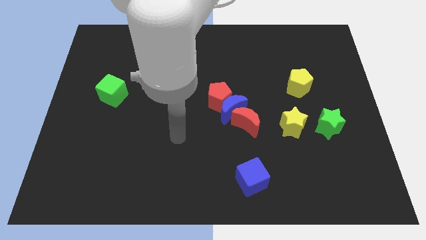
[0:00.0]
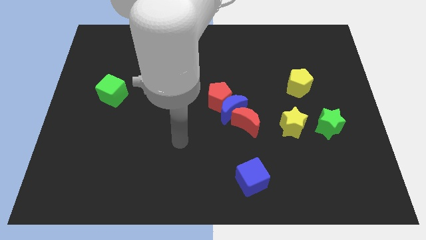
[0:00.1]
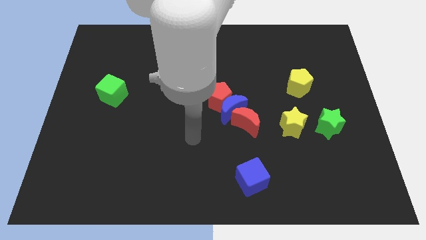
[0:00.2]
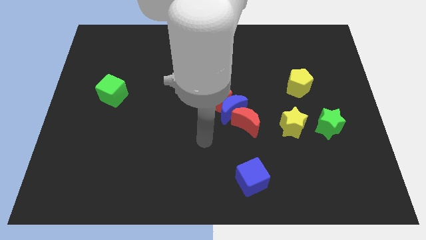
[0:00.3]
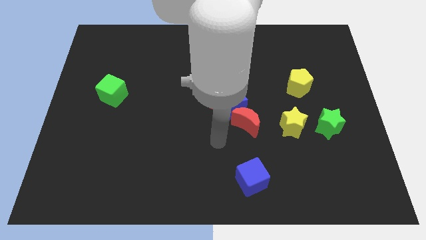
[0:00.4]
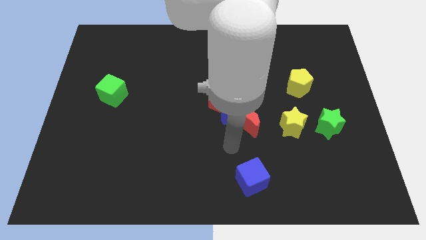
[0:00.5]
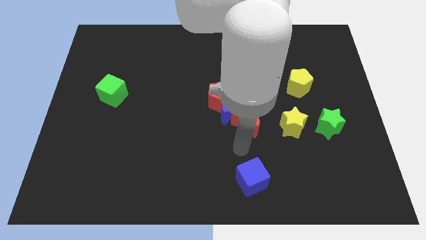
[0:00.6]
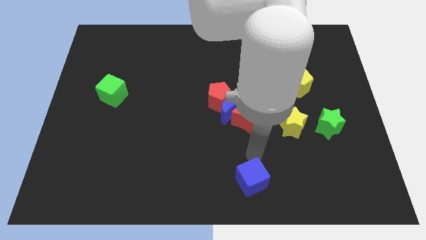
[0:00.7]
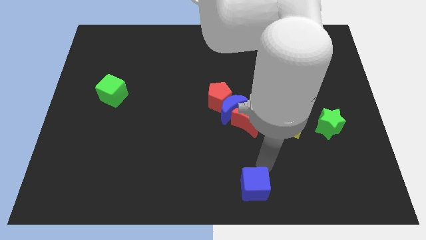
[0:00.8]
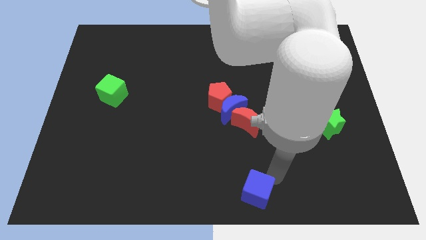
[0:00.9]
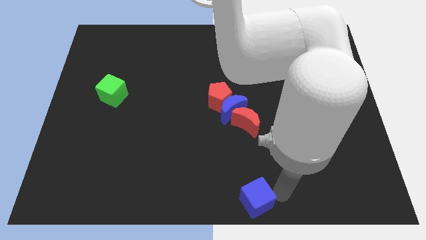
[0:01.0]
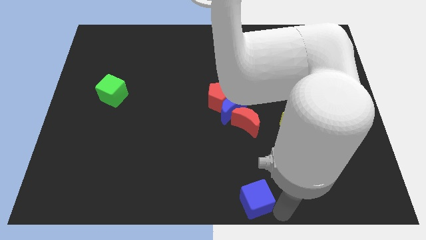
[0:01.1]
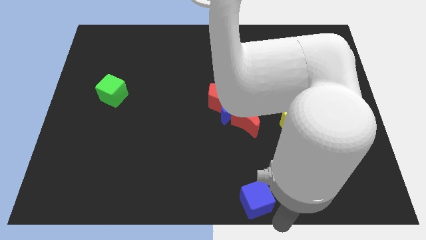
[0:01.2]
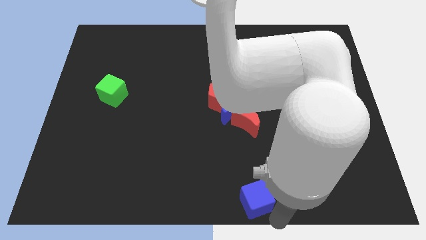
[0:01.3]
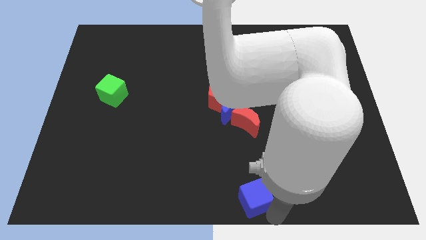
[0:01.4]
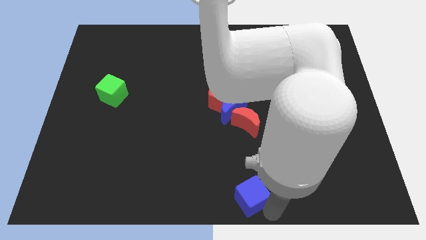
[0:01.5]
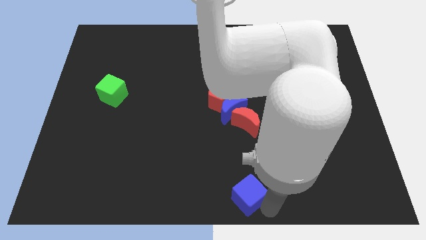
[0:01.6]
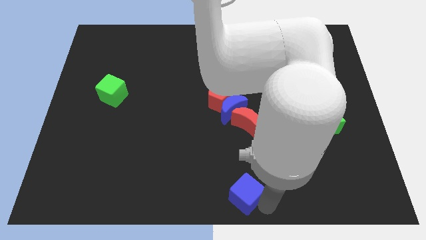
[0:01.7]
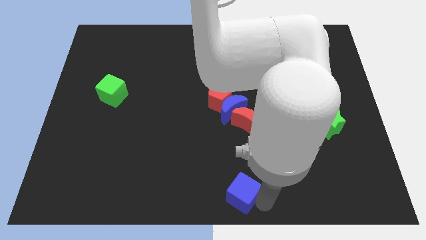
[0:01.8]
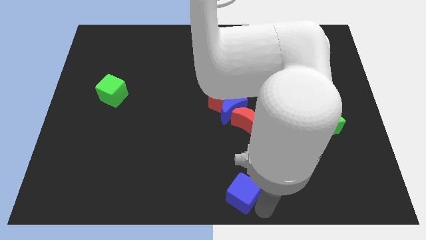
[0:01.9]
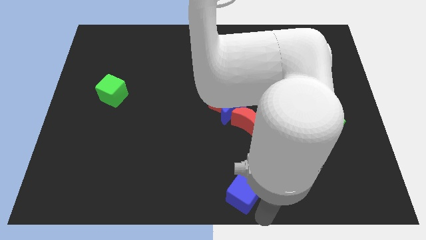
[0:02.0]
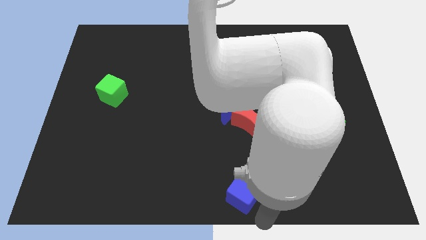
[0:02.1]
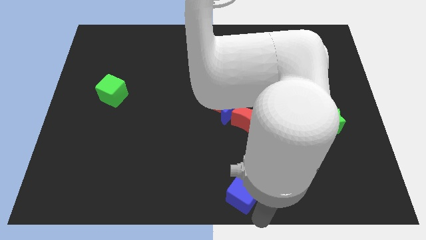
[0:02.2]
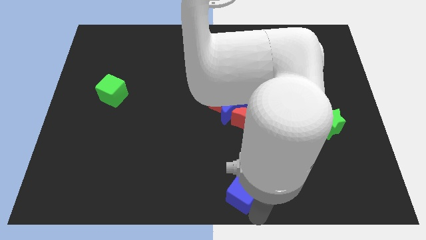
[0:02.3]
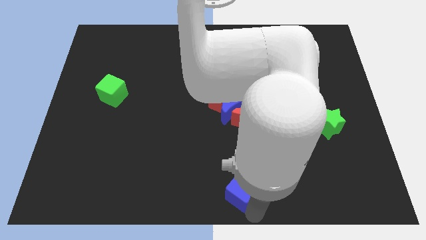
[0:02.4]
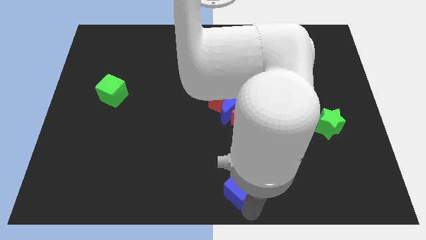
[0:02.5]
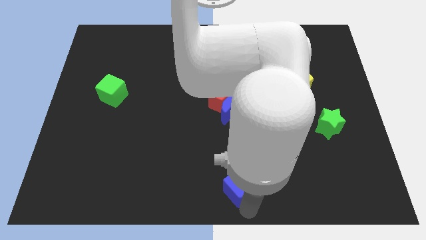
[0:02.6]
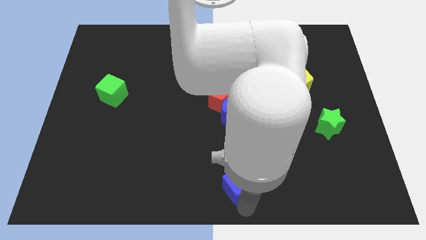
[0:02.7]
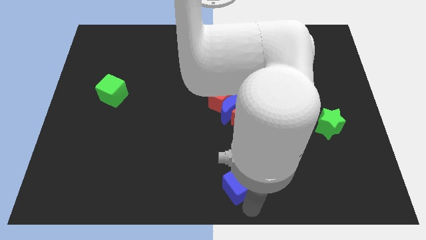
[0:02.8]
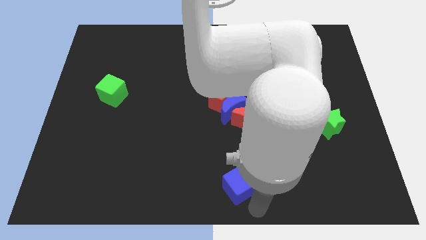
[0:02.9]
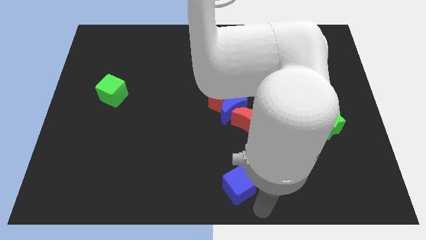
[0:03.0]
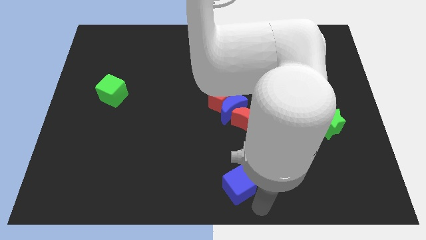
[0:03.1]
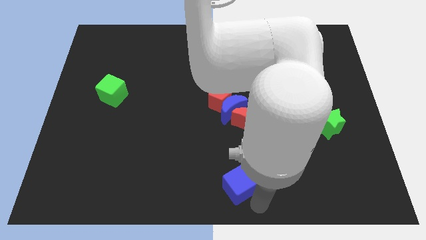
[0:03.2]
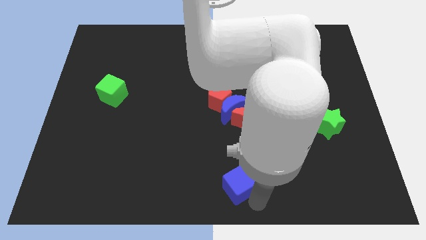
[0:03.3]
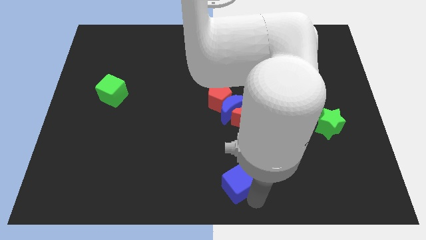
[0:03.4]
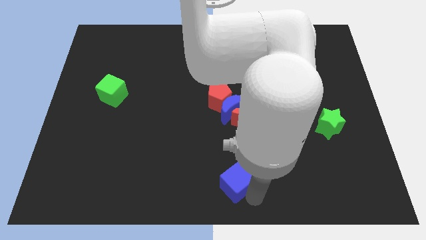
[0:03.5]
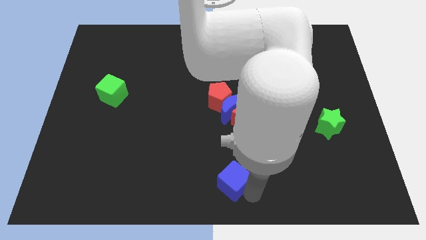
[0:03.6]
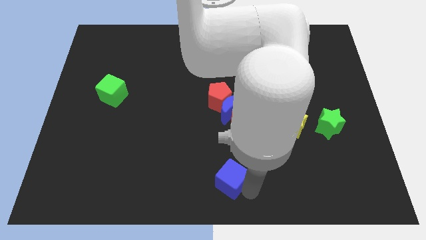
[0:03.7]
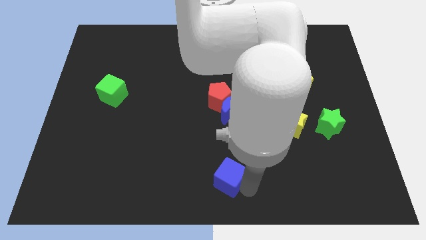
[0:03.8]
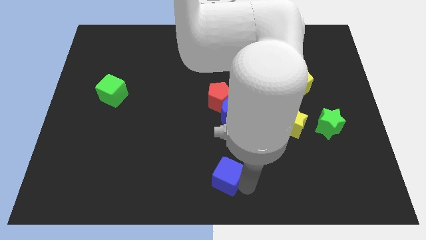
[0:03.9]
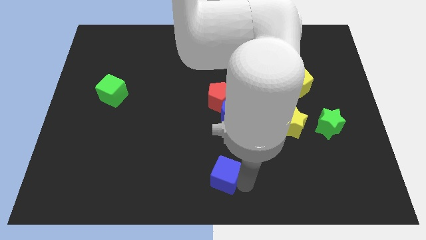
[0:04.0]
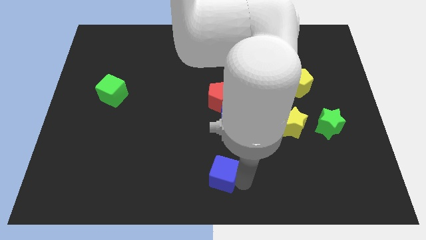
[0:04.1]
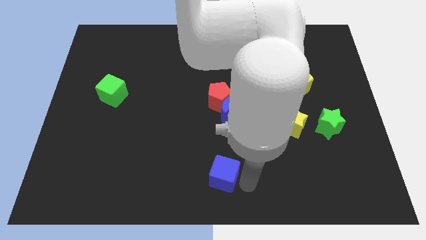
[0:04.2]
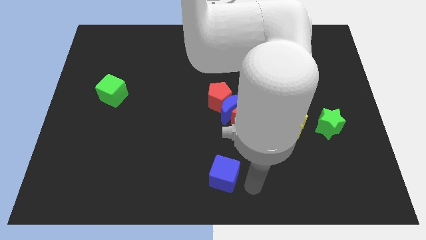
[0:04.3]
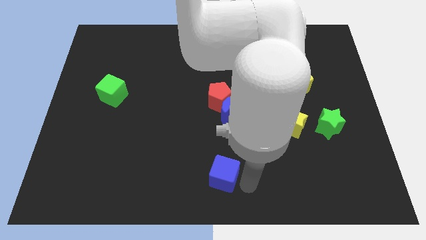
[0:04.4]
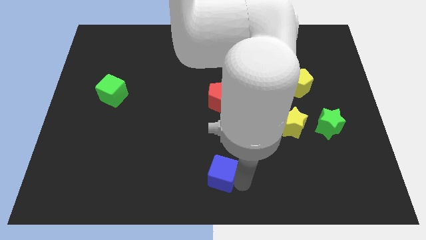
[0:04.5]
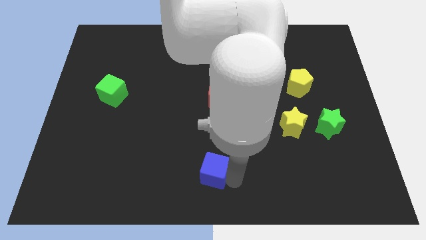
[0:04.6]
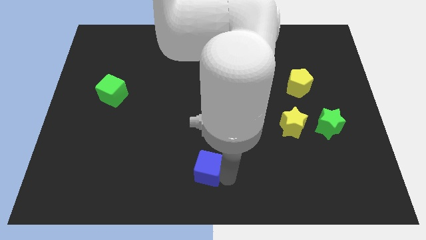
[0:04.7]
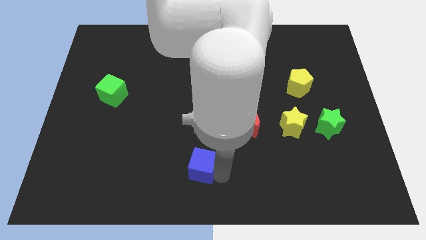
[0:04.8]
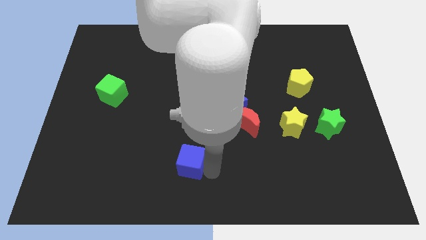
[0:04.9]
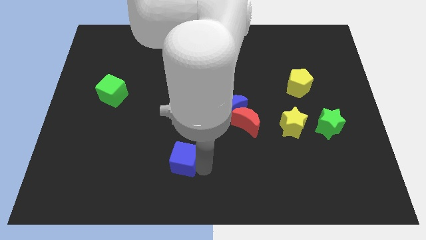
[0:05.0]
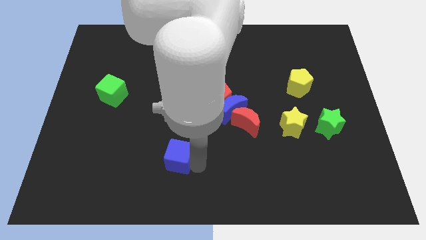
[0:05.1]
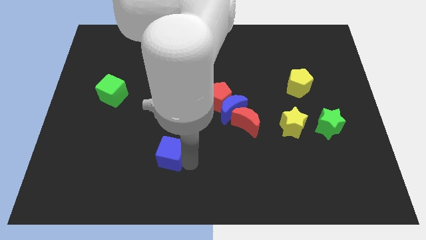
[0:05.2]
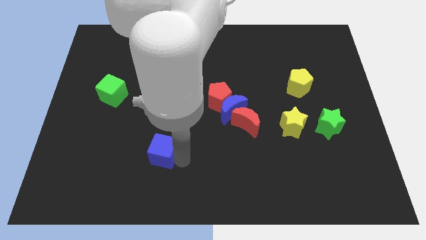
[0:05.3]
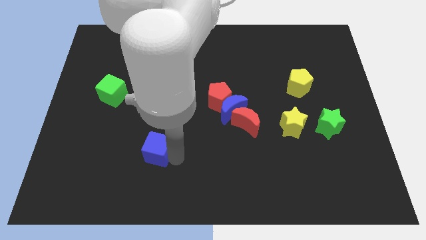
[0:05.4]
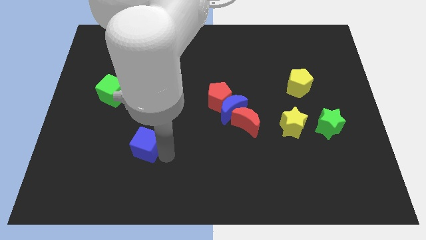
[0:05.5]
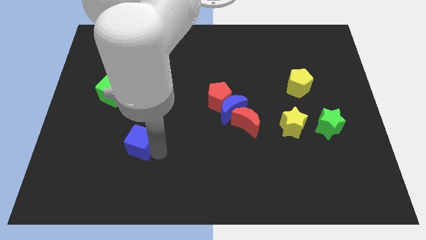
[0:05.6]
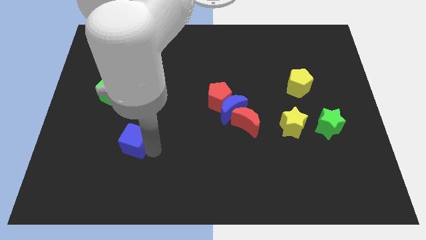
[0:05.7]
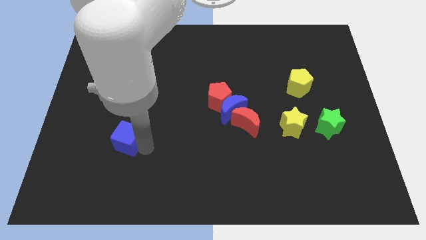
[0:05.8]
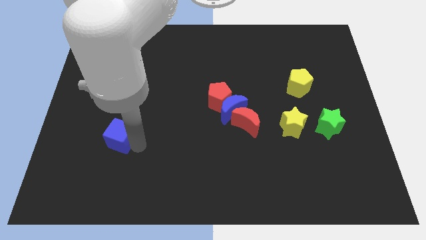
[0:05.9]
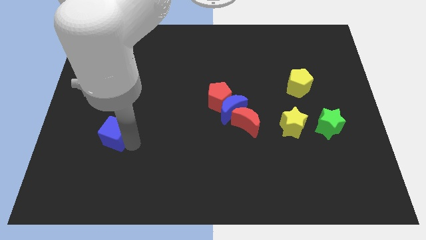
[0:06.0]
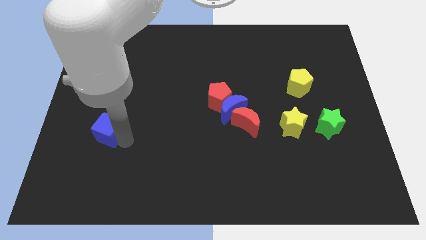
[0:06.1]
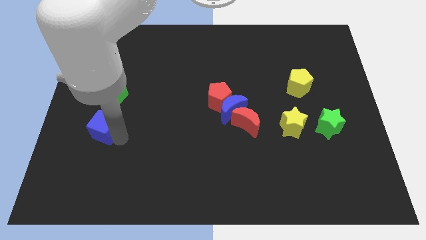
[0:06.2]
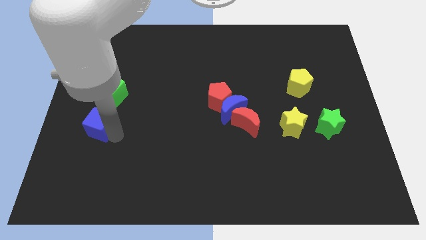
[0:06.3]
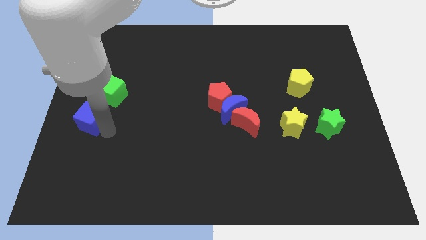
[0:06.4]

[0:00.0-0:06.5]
put the blue cube to the left side
